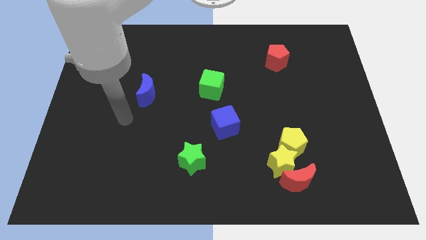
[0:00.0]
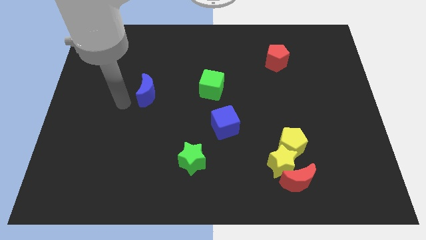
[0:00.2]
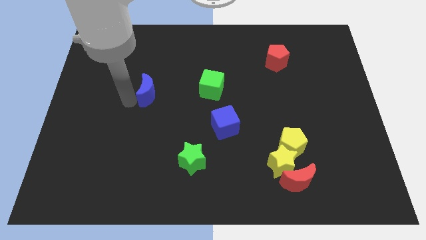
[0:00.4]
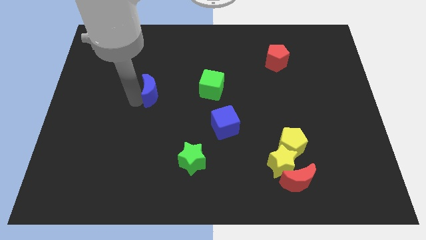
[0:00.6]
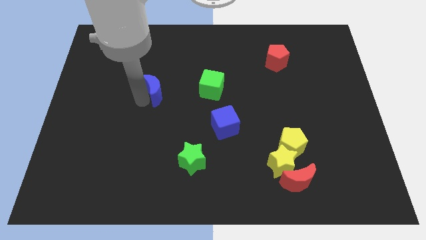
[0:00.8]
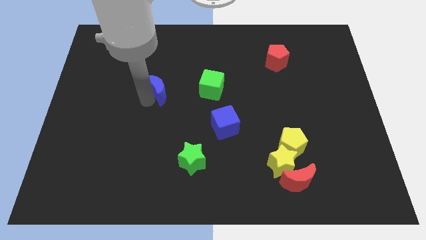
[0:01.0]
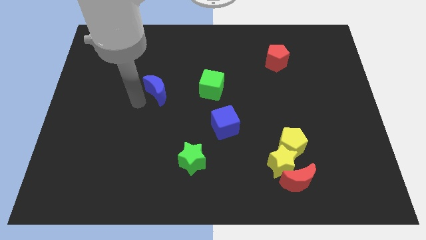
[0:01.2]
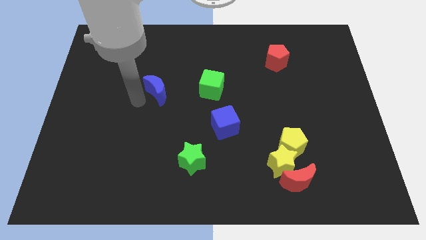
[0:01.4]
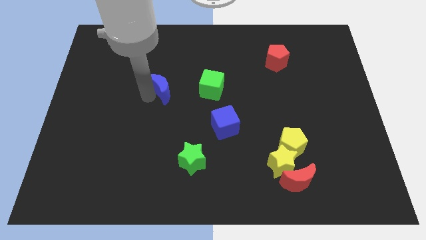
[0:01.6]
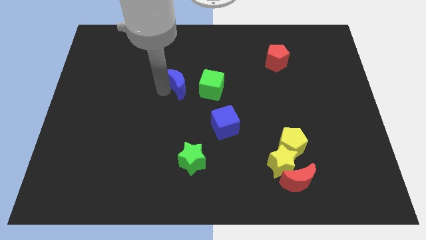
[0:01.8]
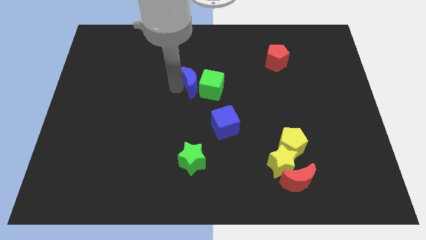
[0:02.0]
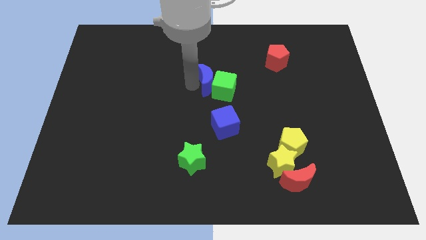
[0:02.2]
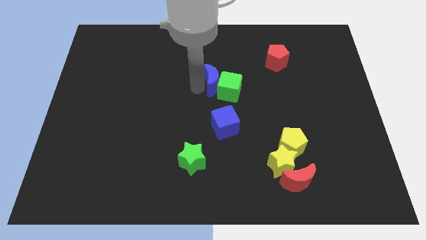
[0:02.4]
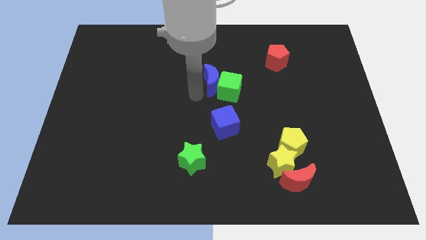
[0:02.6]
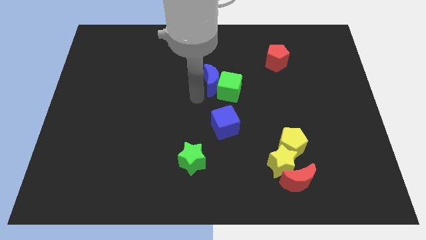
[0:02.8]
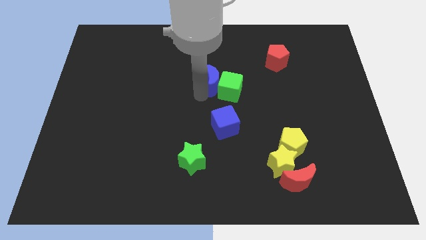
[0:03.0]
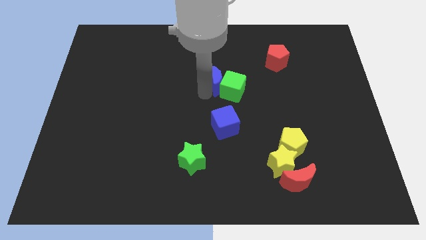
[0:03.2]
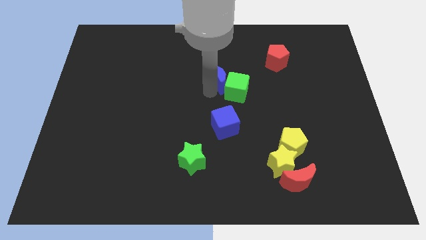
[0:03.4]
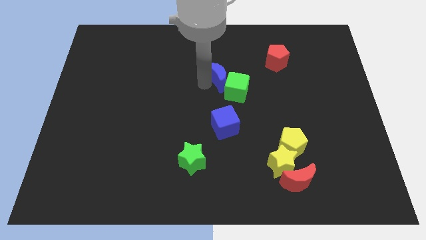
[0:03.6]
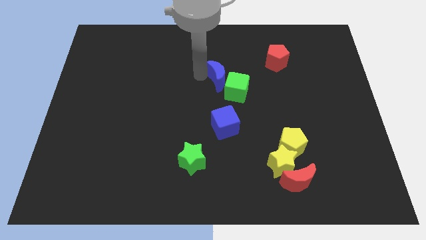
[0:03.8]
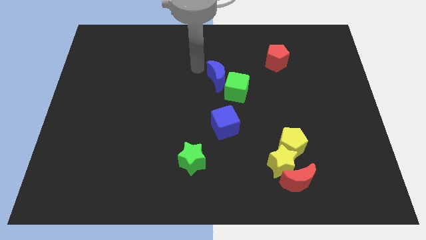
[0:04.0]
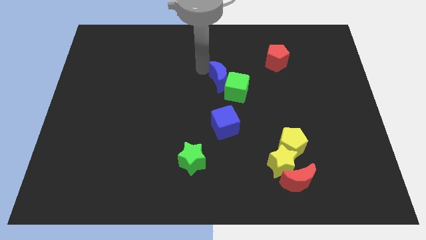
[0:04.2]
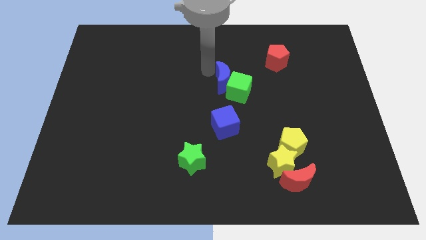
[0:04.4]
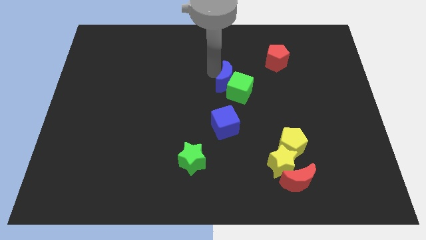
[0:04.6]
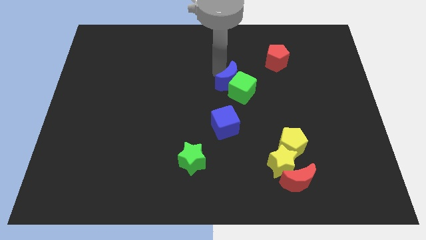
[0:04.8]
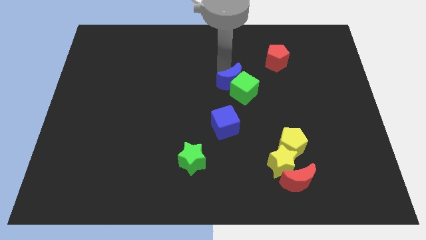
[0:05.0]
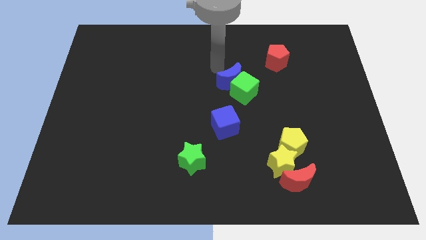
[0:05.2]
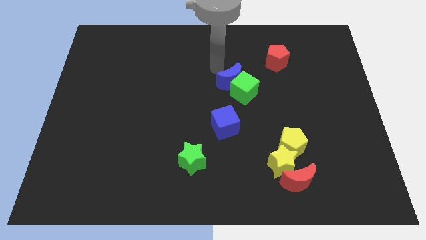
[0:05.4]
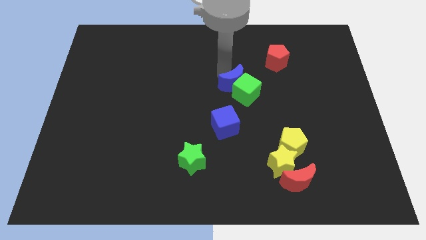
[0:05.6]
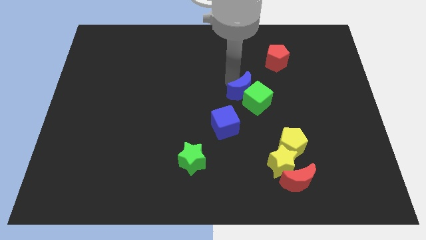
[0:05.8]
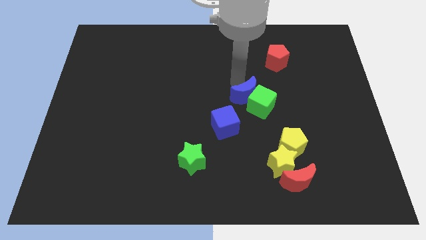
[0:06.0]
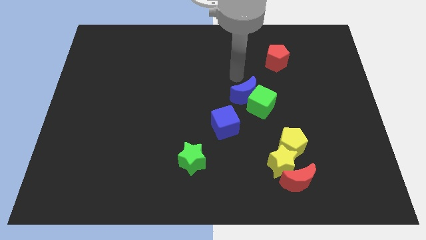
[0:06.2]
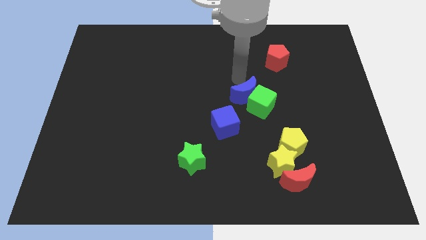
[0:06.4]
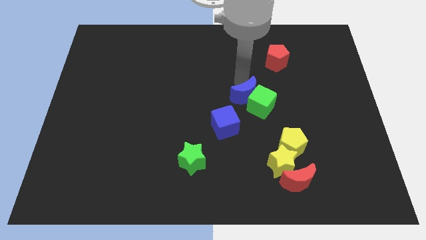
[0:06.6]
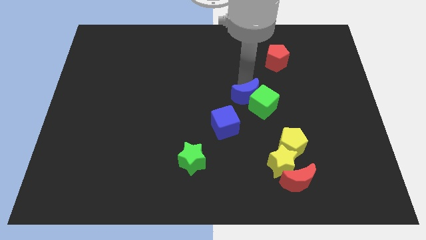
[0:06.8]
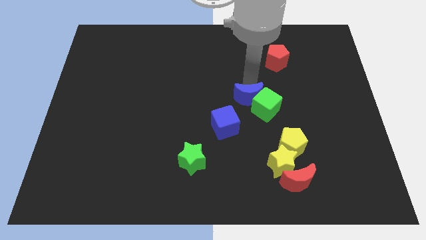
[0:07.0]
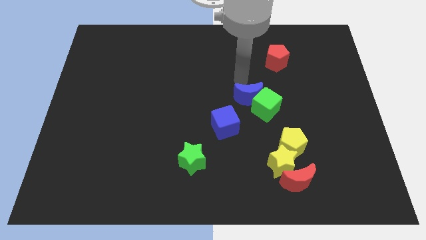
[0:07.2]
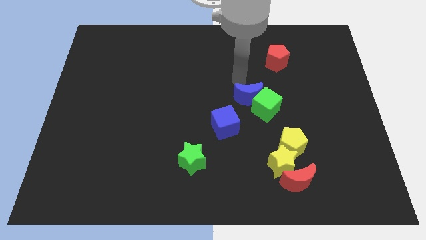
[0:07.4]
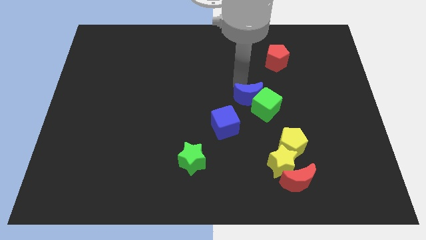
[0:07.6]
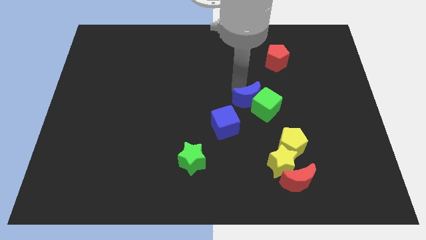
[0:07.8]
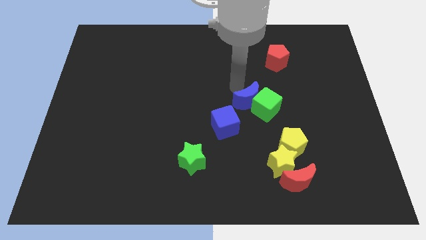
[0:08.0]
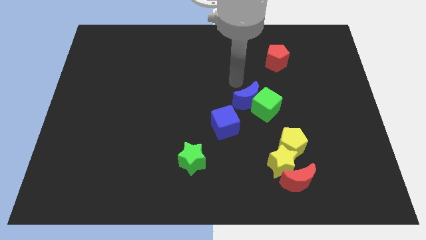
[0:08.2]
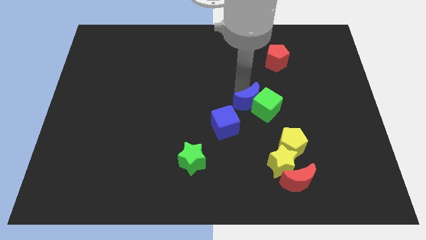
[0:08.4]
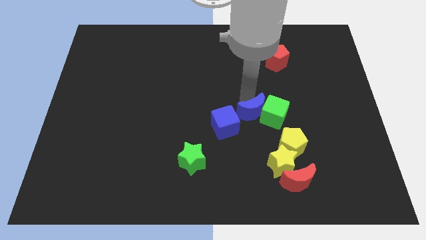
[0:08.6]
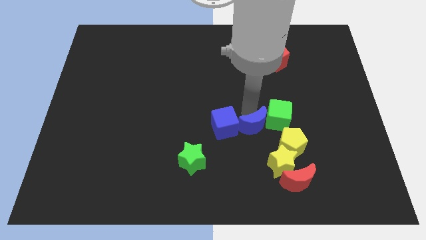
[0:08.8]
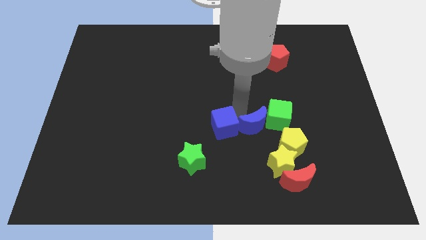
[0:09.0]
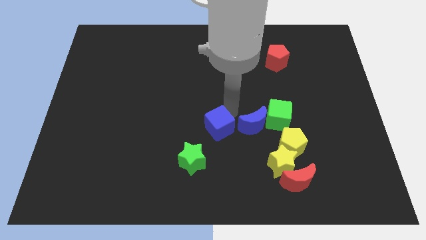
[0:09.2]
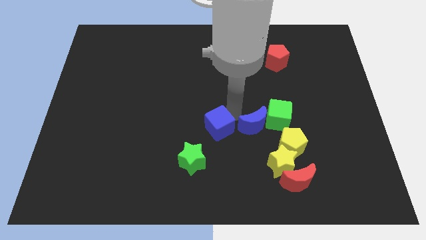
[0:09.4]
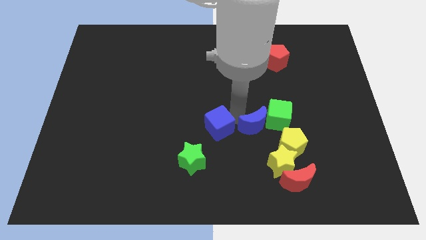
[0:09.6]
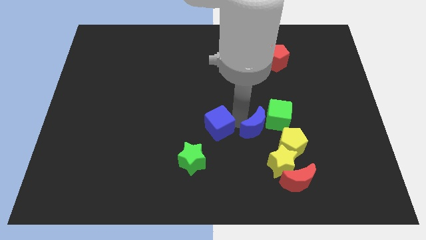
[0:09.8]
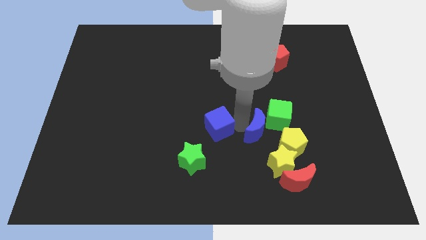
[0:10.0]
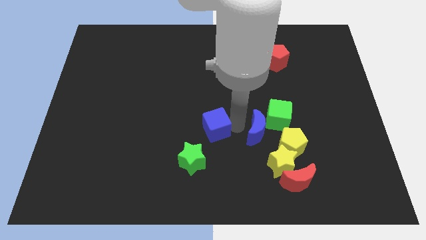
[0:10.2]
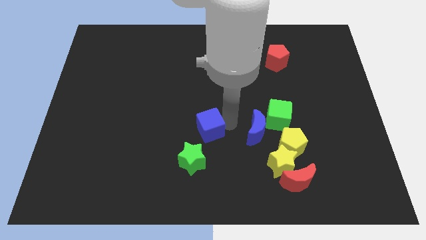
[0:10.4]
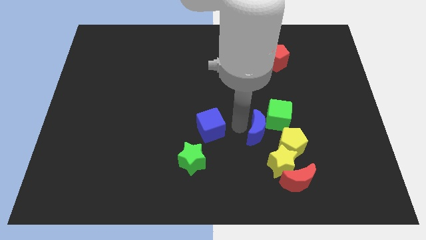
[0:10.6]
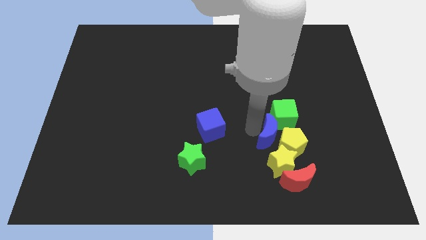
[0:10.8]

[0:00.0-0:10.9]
move the blue moon close to the yellow pentagon

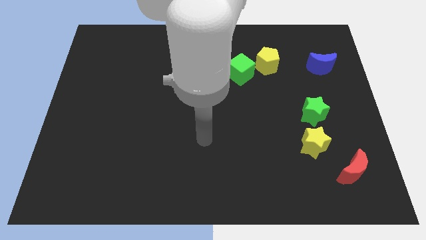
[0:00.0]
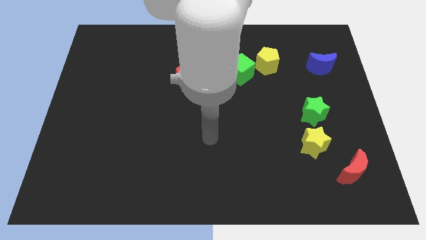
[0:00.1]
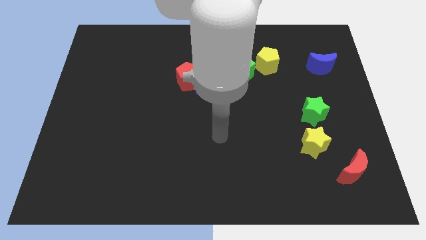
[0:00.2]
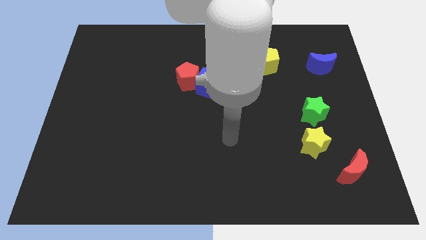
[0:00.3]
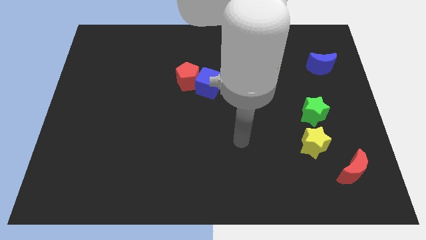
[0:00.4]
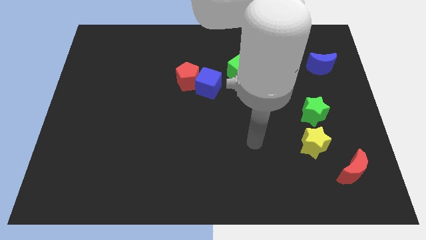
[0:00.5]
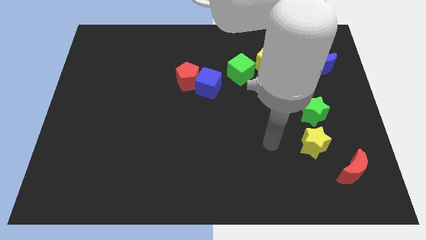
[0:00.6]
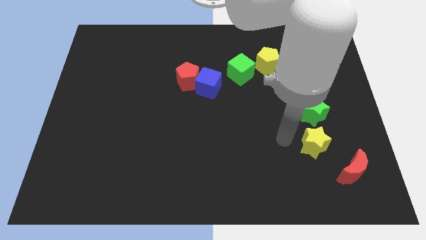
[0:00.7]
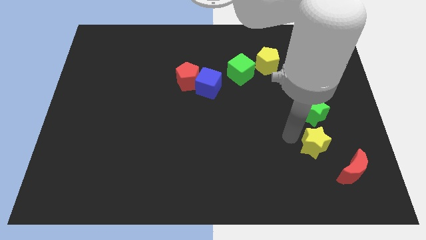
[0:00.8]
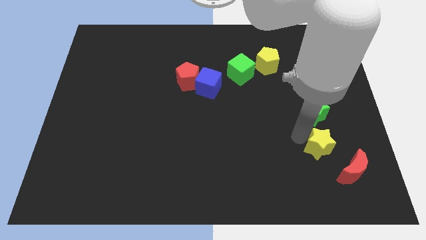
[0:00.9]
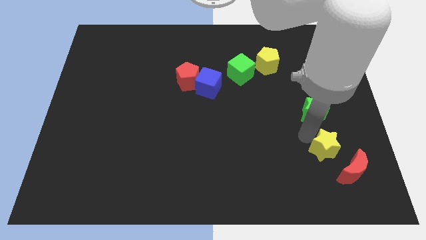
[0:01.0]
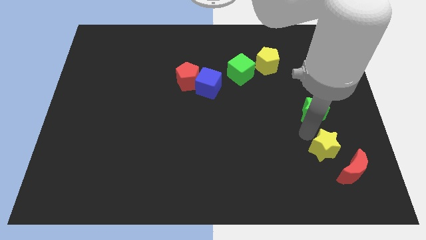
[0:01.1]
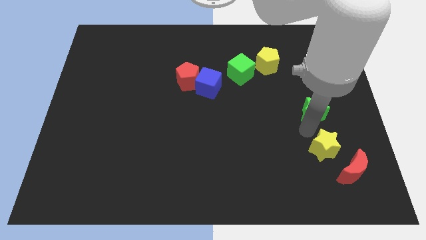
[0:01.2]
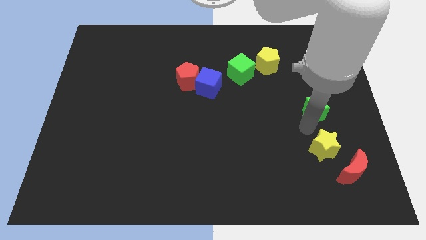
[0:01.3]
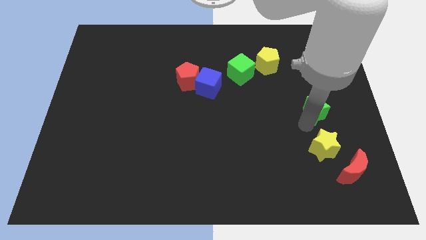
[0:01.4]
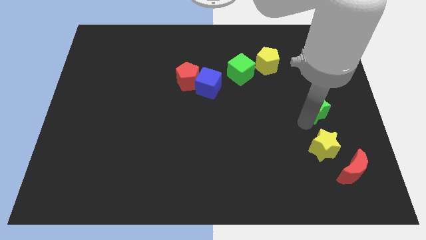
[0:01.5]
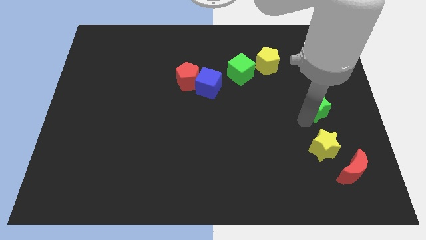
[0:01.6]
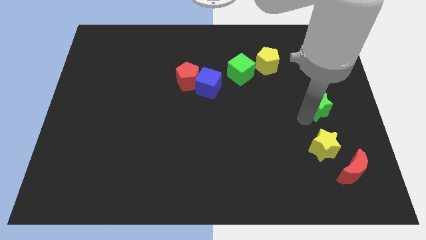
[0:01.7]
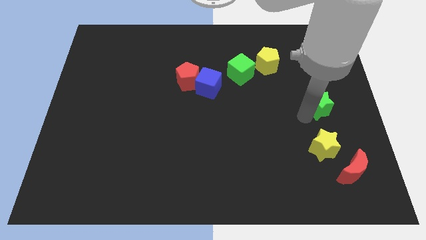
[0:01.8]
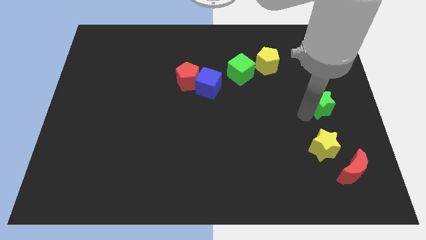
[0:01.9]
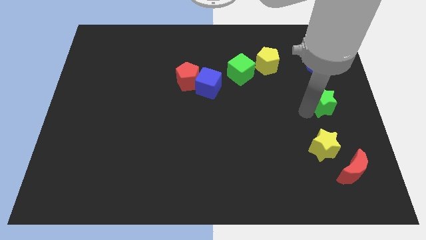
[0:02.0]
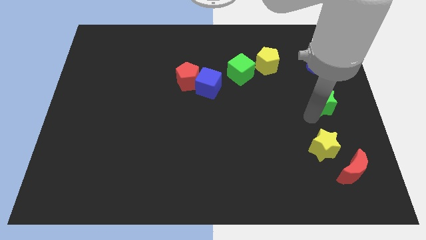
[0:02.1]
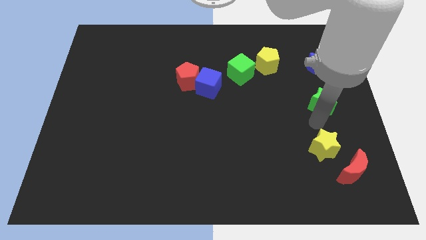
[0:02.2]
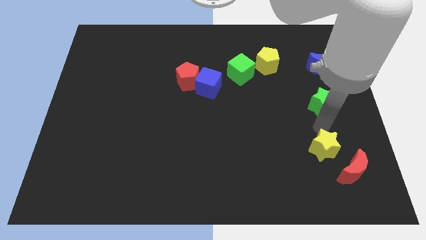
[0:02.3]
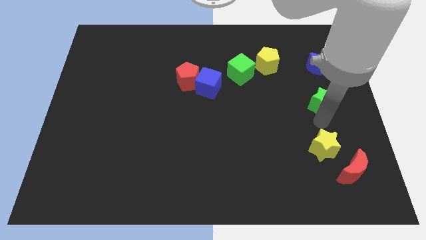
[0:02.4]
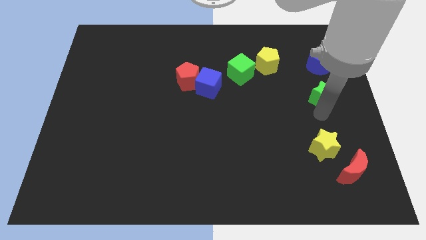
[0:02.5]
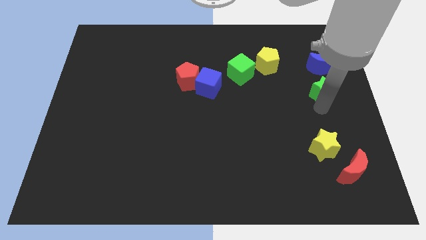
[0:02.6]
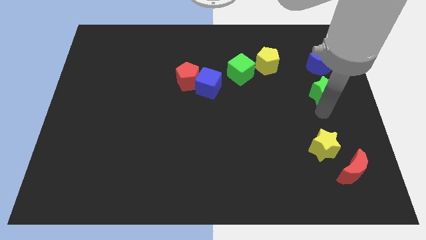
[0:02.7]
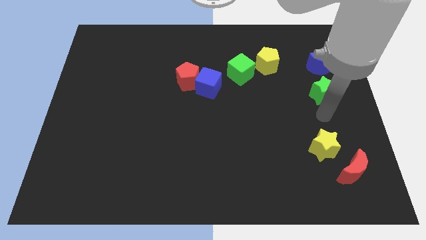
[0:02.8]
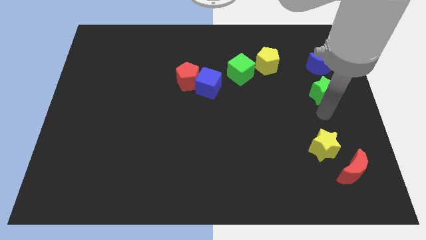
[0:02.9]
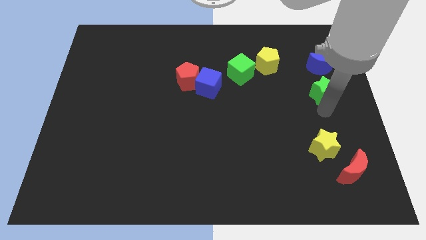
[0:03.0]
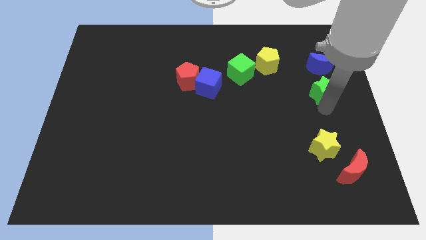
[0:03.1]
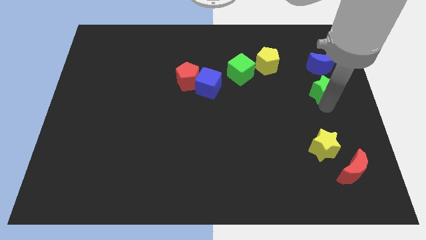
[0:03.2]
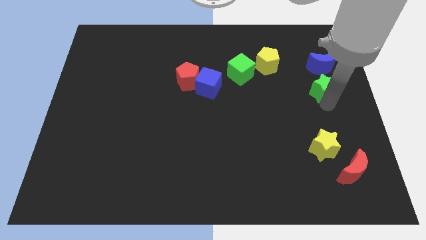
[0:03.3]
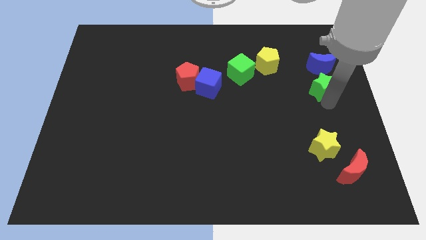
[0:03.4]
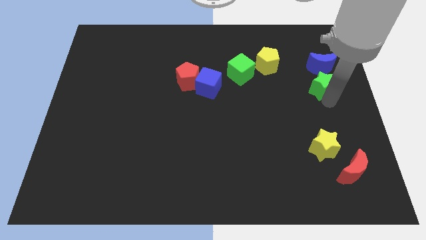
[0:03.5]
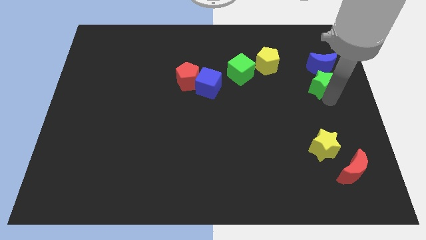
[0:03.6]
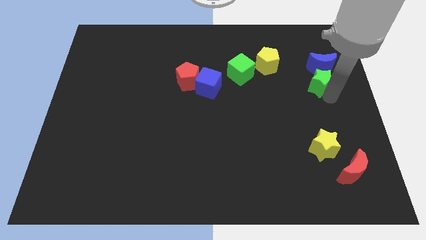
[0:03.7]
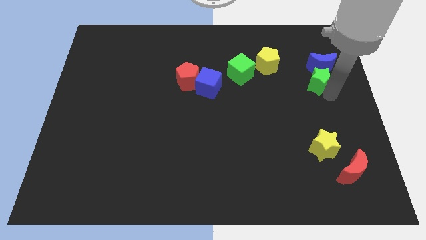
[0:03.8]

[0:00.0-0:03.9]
put the green star close to the blue moon
